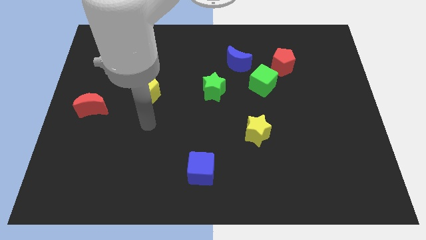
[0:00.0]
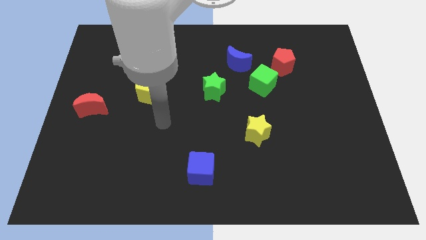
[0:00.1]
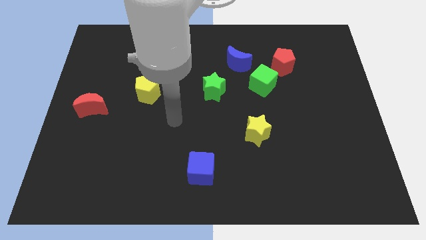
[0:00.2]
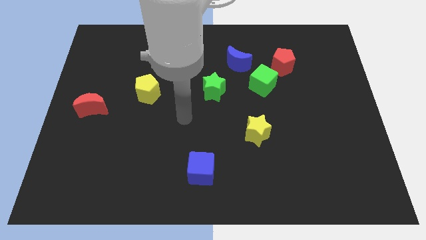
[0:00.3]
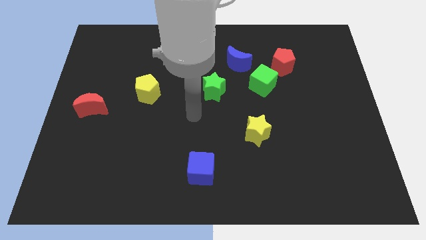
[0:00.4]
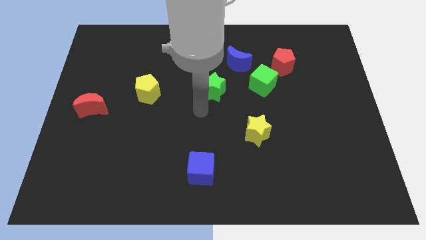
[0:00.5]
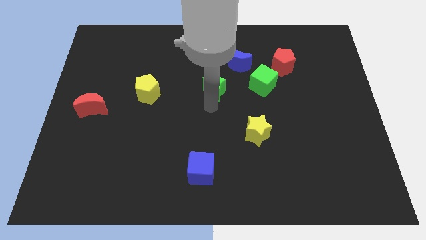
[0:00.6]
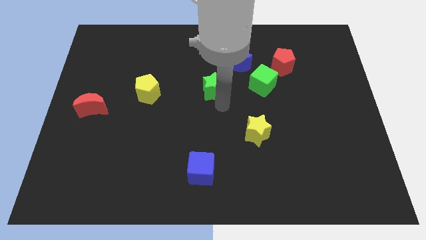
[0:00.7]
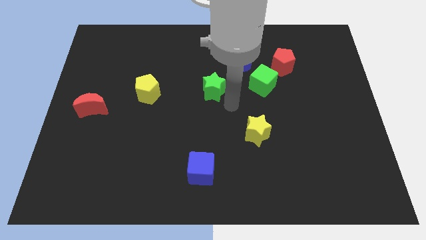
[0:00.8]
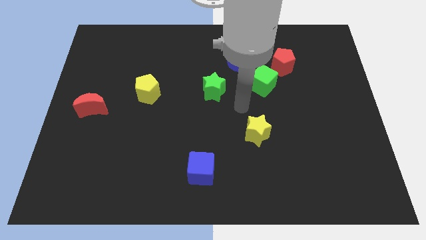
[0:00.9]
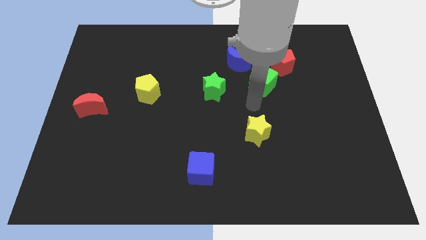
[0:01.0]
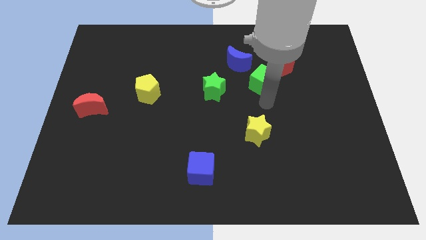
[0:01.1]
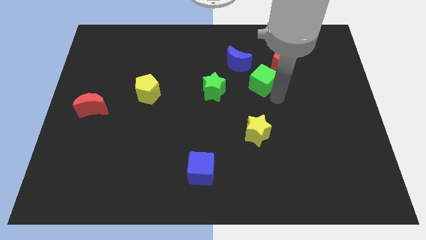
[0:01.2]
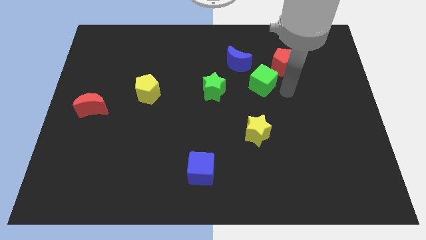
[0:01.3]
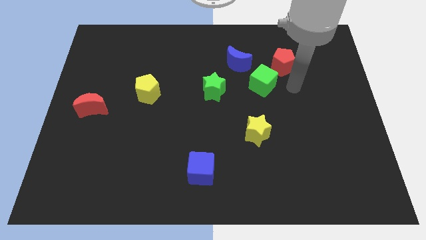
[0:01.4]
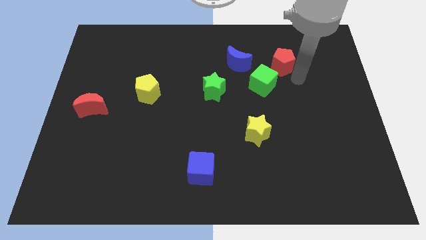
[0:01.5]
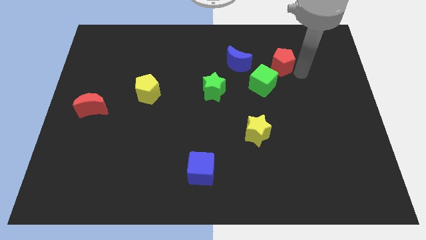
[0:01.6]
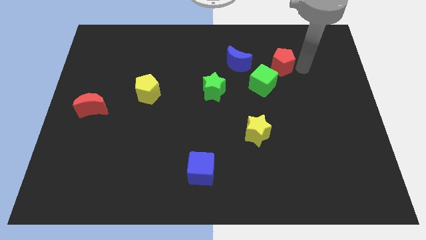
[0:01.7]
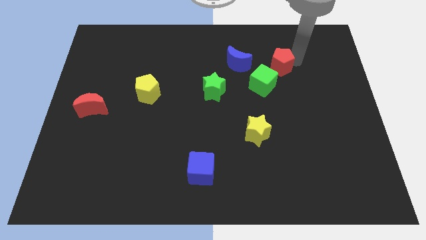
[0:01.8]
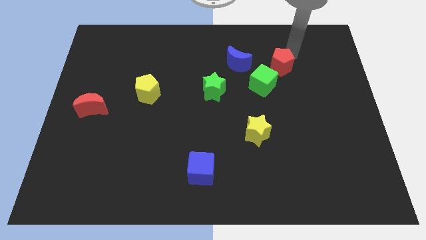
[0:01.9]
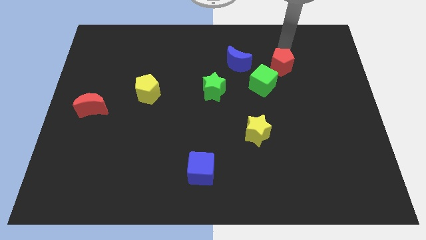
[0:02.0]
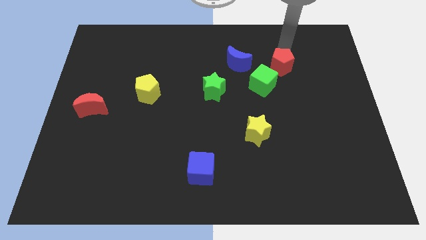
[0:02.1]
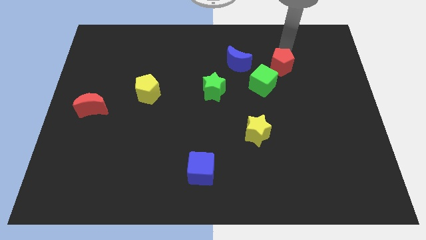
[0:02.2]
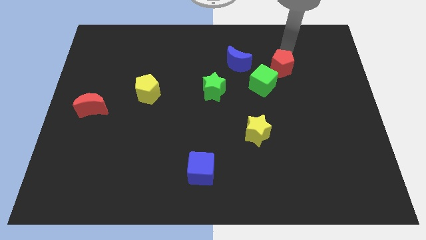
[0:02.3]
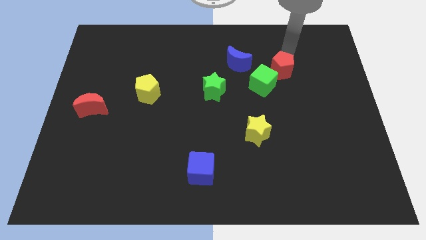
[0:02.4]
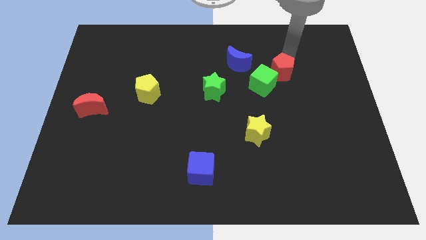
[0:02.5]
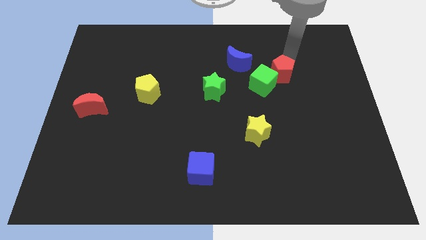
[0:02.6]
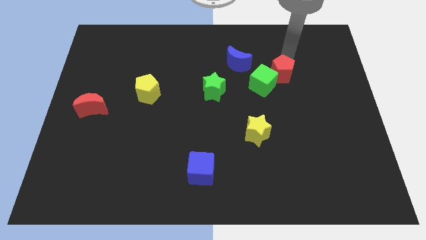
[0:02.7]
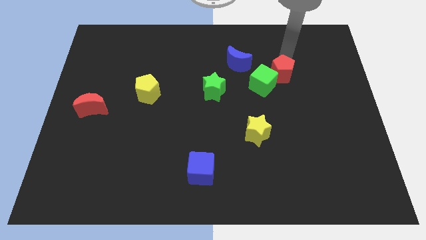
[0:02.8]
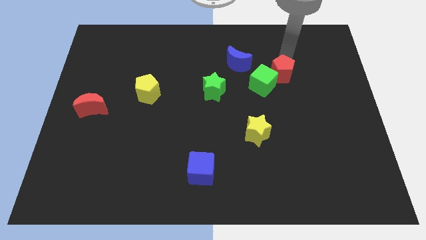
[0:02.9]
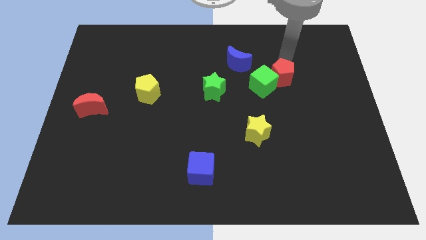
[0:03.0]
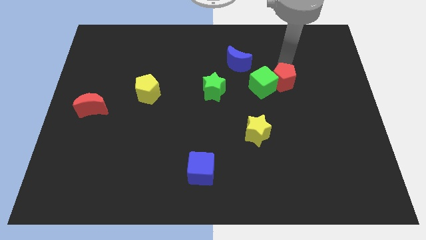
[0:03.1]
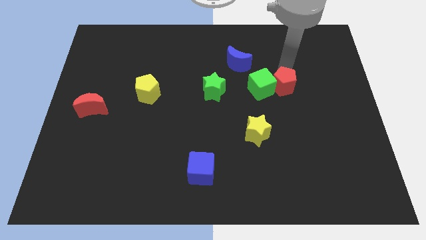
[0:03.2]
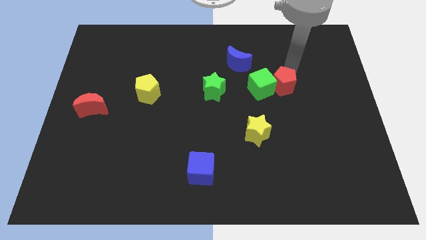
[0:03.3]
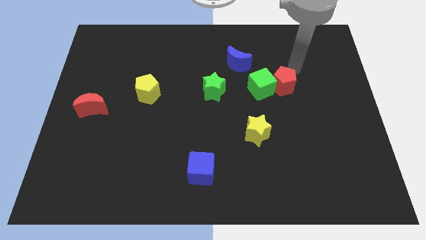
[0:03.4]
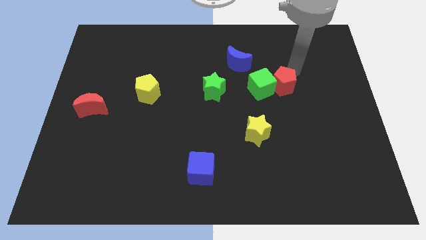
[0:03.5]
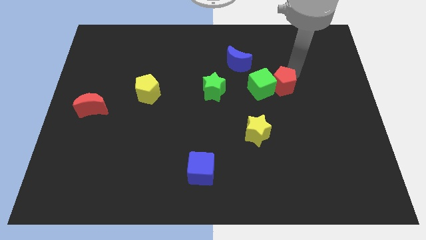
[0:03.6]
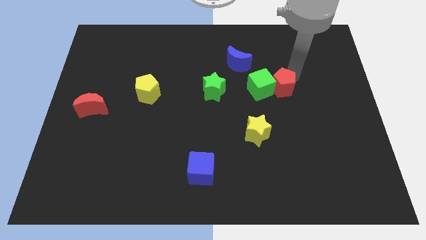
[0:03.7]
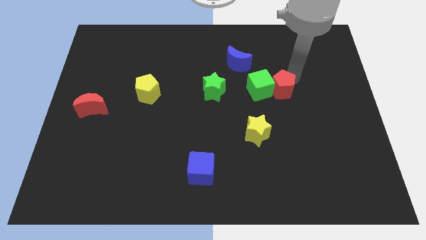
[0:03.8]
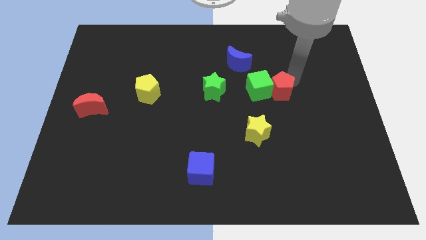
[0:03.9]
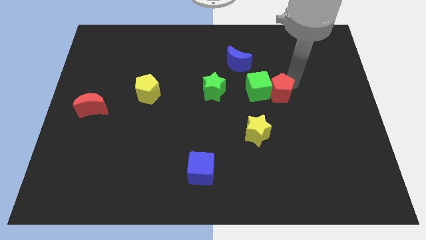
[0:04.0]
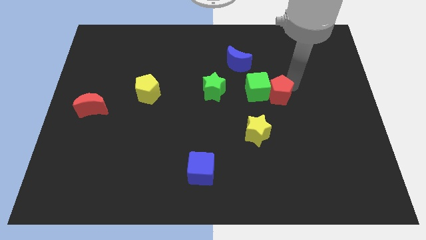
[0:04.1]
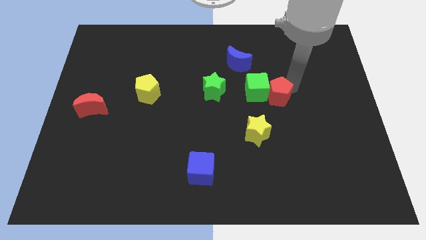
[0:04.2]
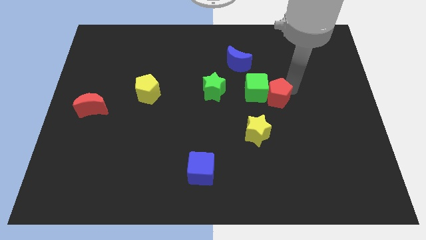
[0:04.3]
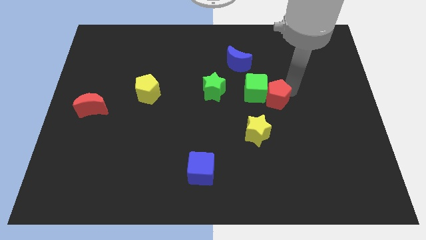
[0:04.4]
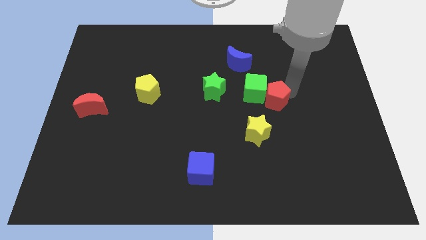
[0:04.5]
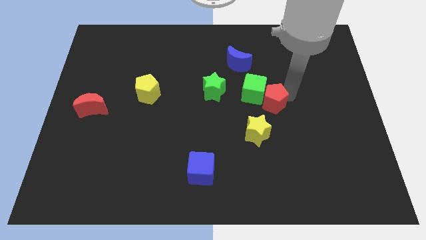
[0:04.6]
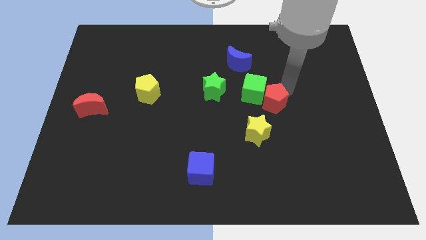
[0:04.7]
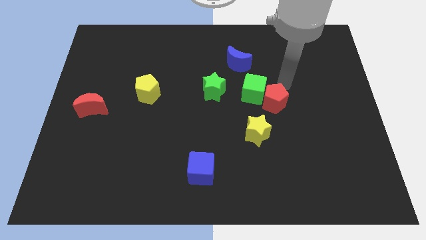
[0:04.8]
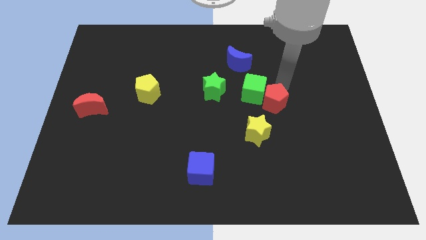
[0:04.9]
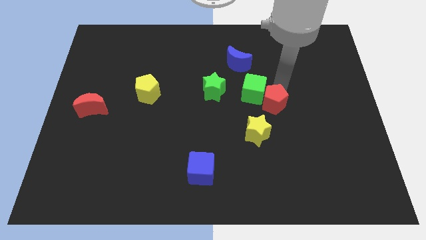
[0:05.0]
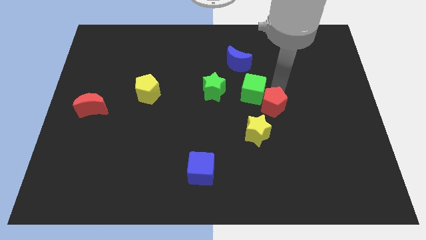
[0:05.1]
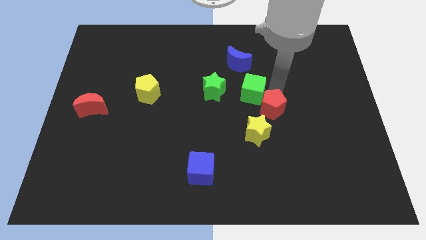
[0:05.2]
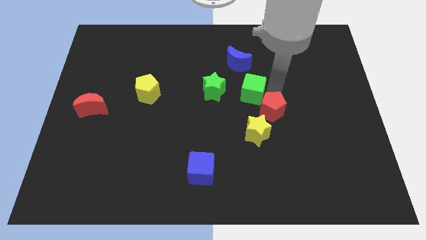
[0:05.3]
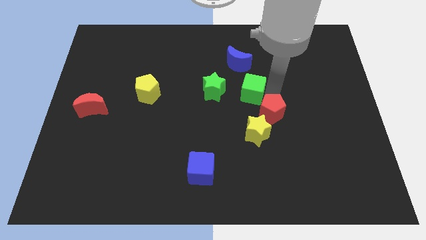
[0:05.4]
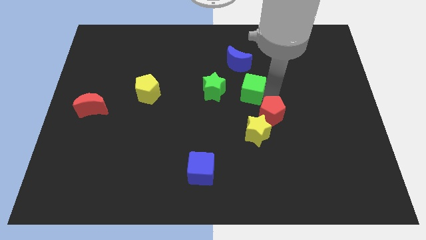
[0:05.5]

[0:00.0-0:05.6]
push the red pentagon to the yellow star

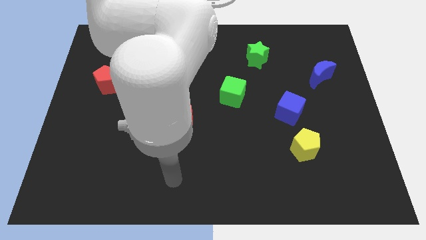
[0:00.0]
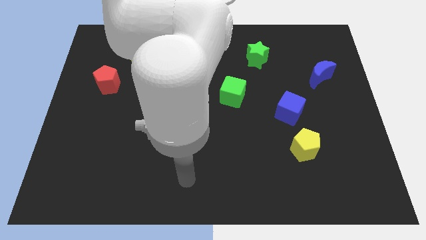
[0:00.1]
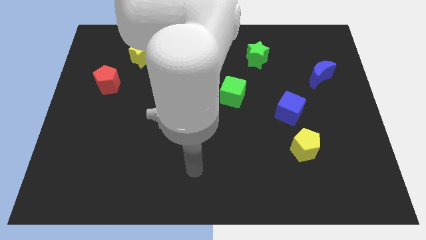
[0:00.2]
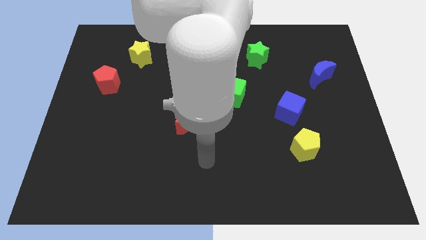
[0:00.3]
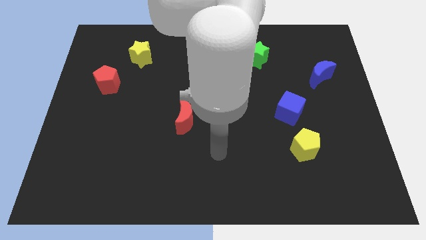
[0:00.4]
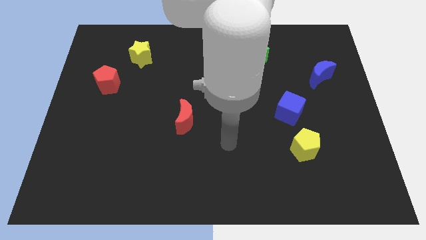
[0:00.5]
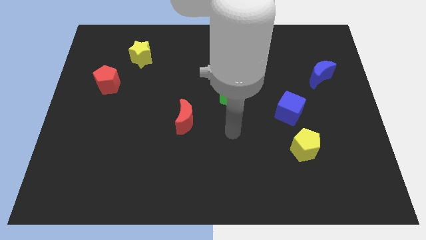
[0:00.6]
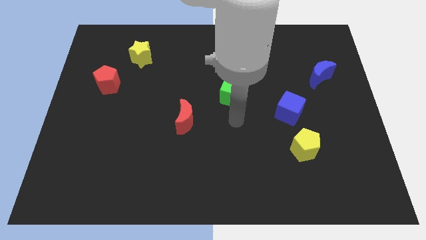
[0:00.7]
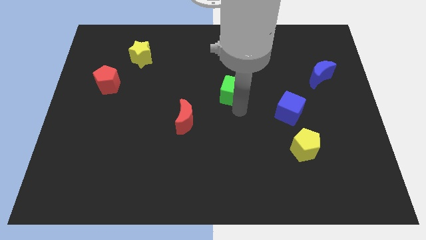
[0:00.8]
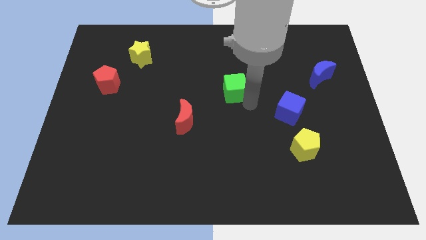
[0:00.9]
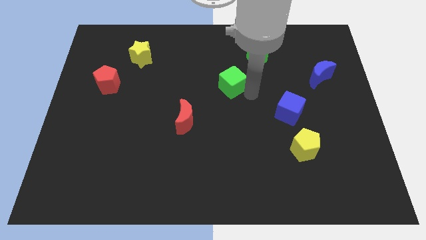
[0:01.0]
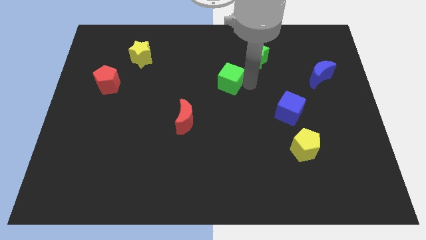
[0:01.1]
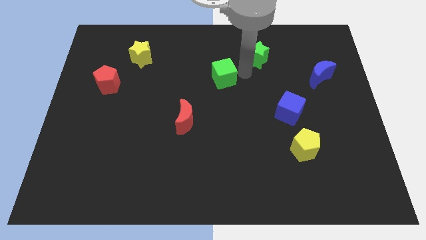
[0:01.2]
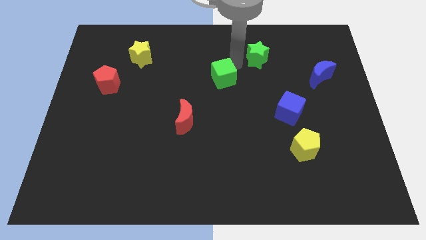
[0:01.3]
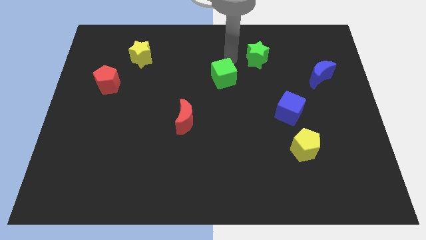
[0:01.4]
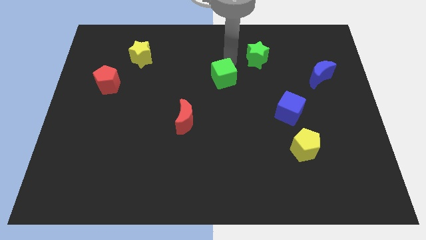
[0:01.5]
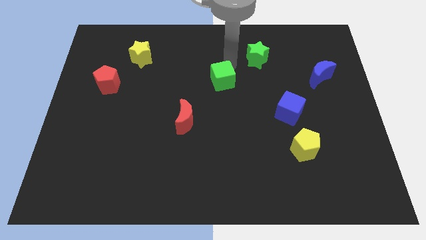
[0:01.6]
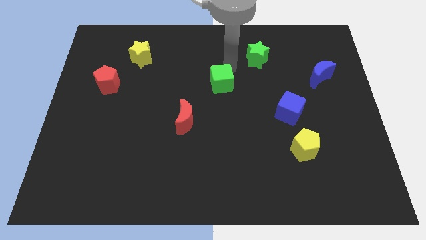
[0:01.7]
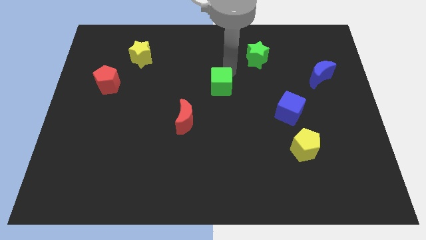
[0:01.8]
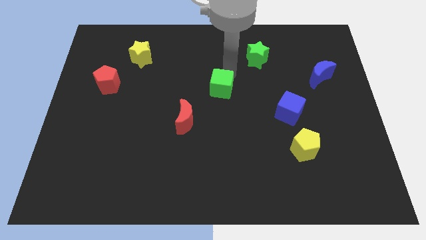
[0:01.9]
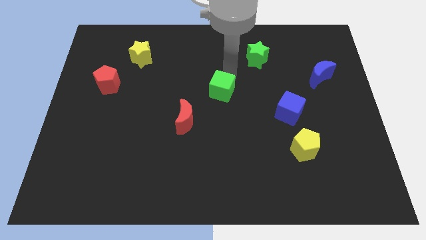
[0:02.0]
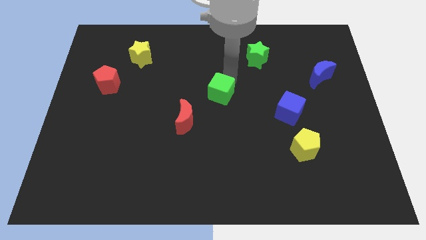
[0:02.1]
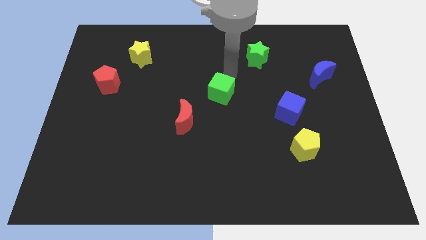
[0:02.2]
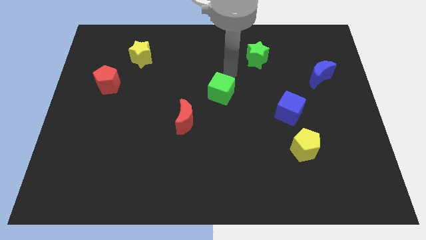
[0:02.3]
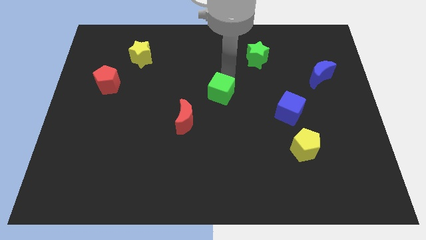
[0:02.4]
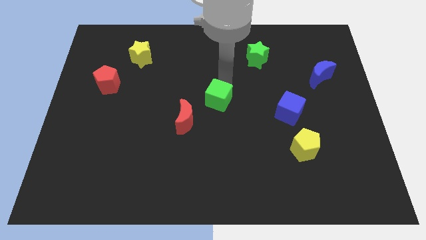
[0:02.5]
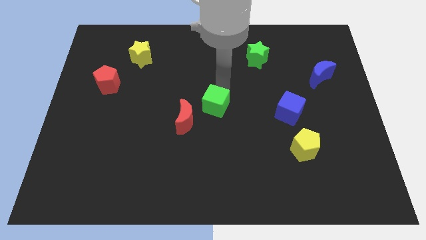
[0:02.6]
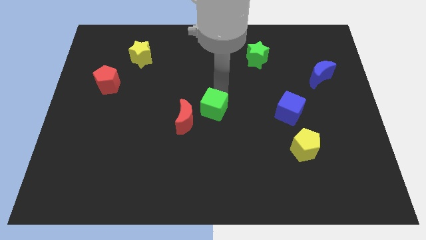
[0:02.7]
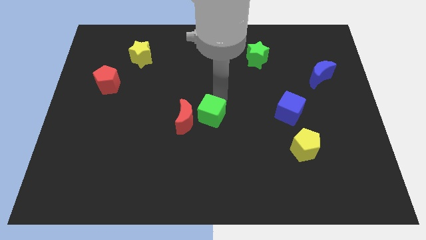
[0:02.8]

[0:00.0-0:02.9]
move the green cube close to the red moon

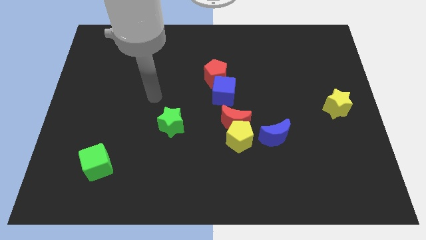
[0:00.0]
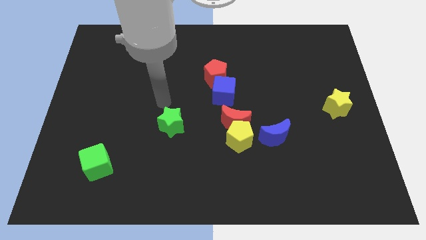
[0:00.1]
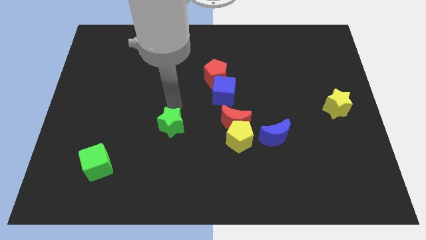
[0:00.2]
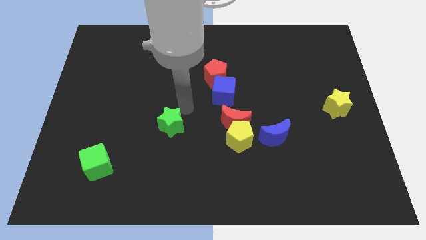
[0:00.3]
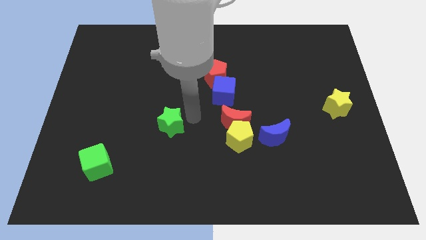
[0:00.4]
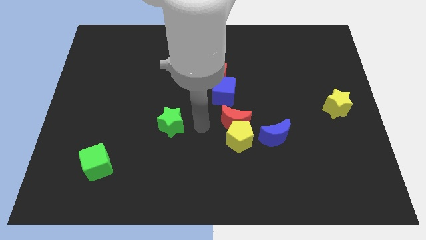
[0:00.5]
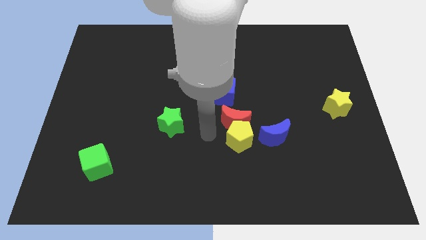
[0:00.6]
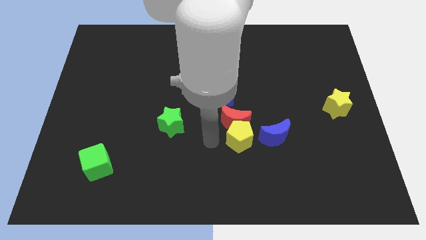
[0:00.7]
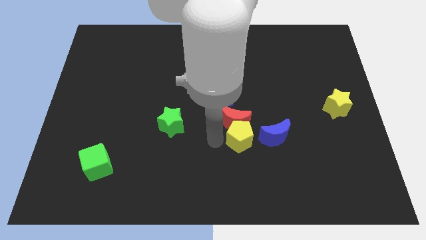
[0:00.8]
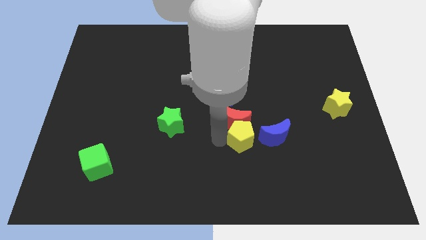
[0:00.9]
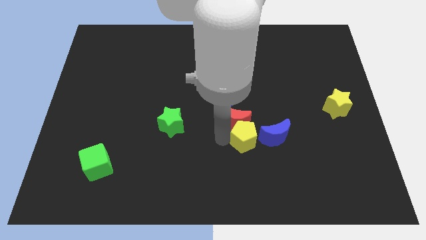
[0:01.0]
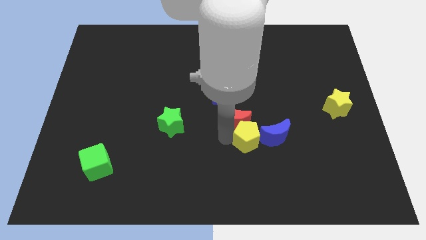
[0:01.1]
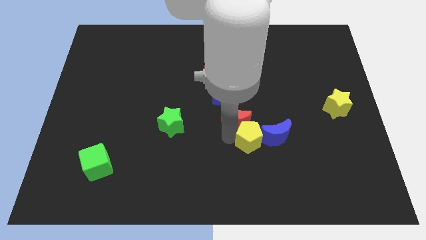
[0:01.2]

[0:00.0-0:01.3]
put the yellow pentagon towards the blue moon
